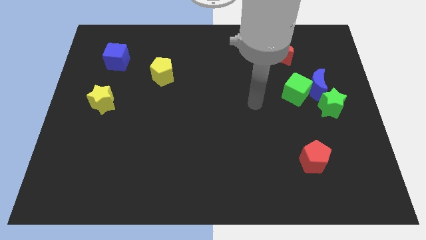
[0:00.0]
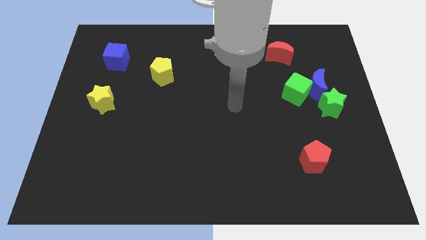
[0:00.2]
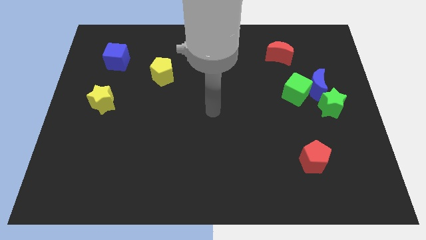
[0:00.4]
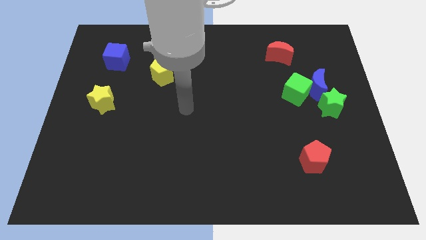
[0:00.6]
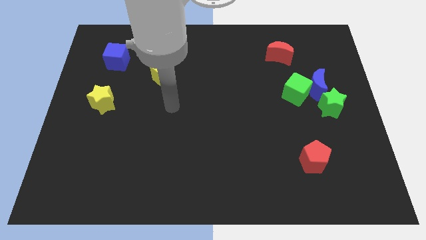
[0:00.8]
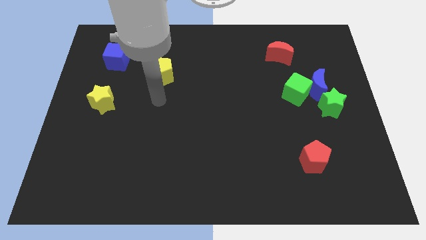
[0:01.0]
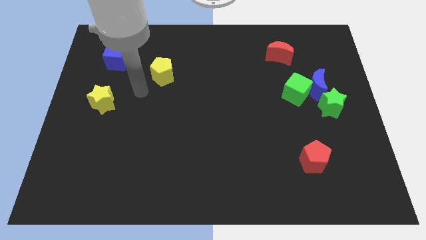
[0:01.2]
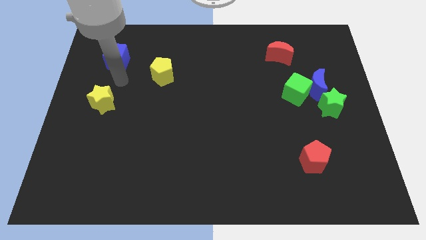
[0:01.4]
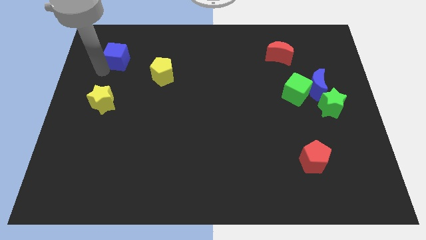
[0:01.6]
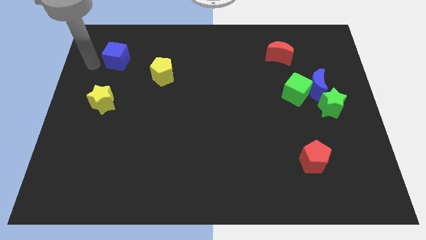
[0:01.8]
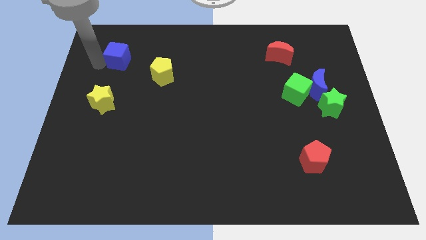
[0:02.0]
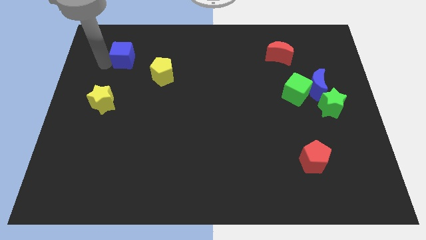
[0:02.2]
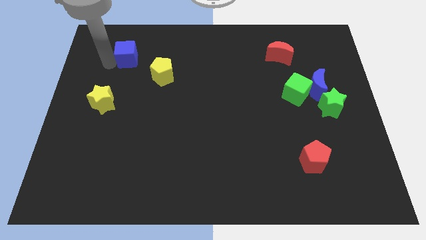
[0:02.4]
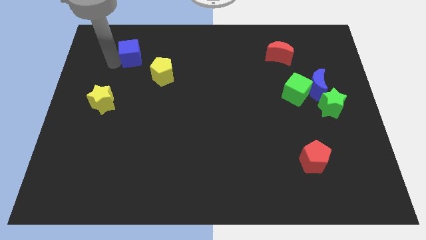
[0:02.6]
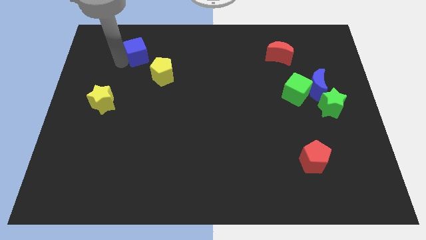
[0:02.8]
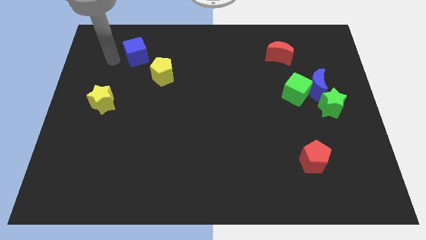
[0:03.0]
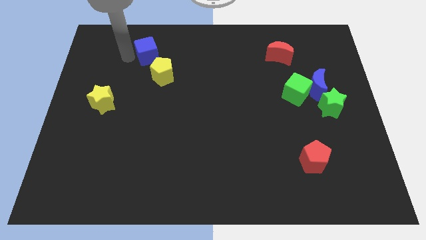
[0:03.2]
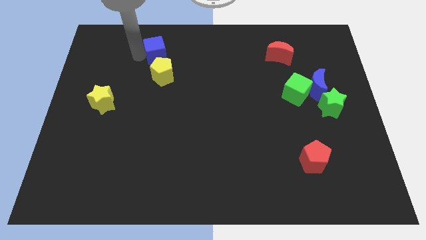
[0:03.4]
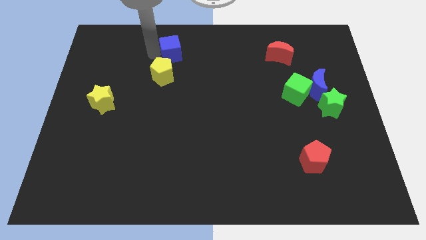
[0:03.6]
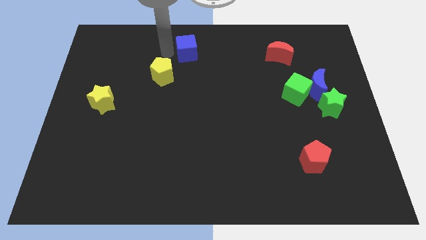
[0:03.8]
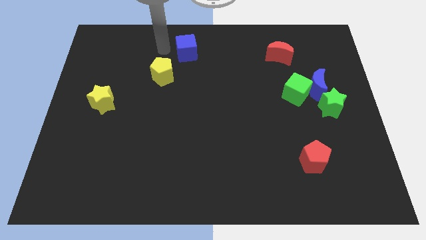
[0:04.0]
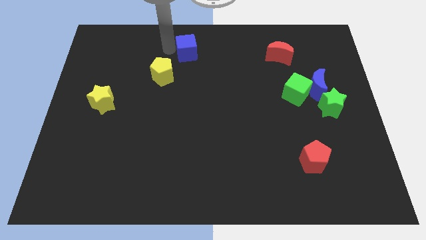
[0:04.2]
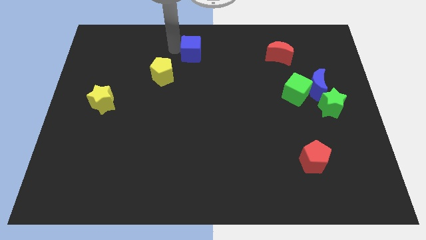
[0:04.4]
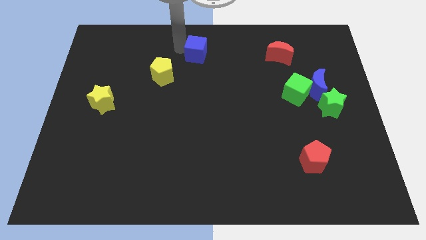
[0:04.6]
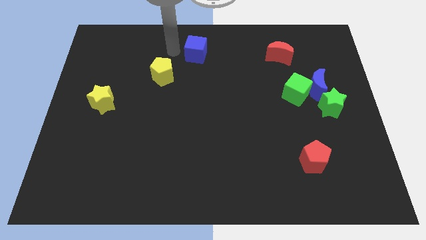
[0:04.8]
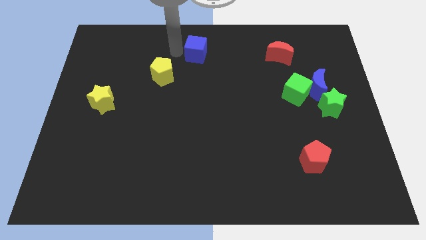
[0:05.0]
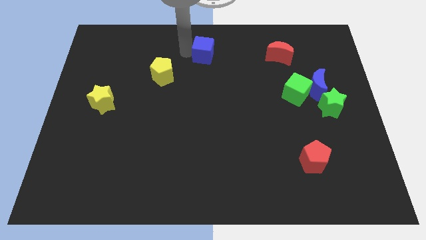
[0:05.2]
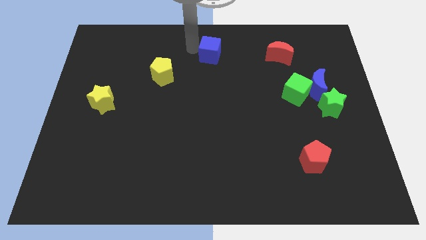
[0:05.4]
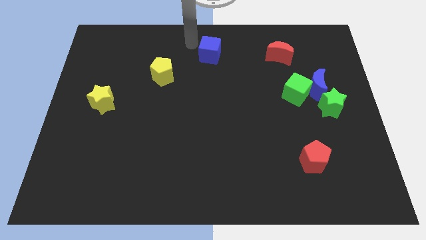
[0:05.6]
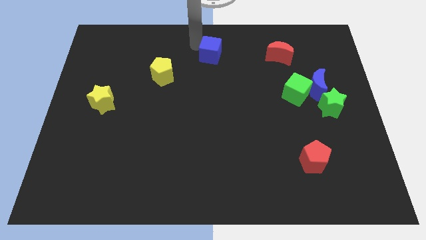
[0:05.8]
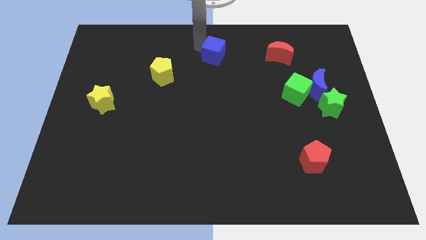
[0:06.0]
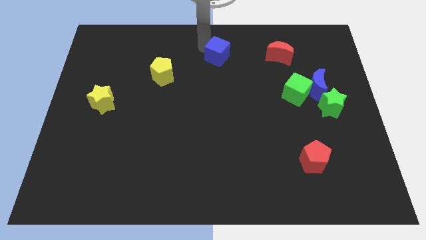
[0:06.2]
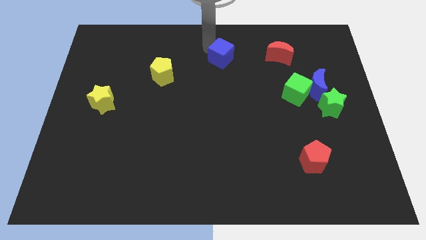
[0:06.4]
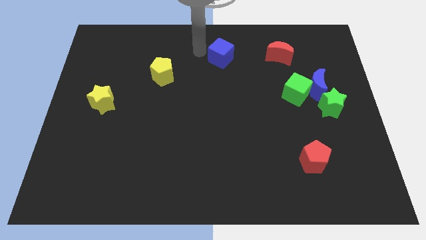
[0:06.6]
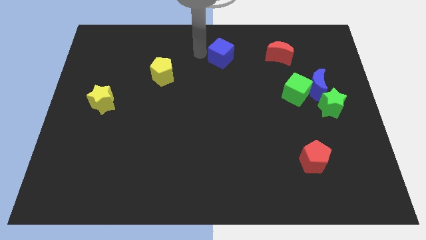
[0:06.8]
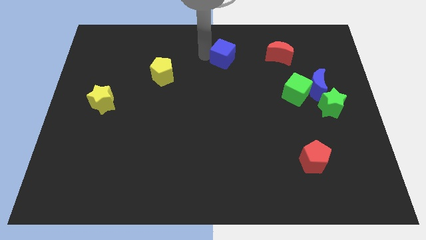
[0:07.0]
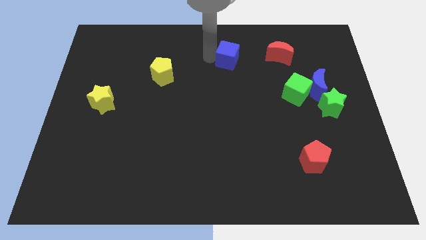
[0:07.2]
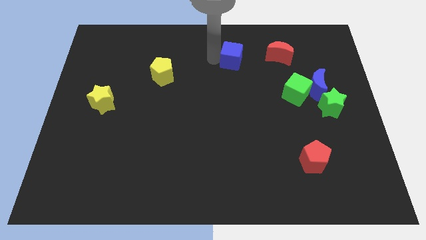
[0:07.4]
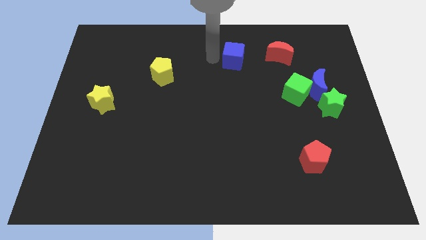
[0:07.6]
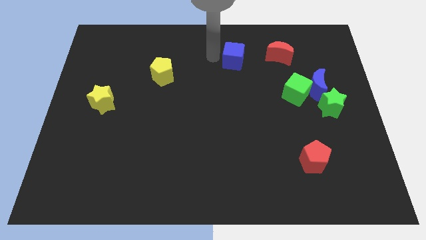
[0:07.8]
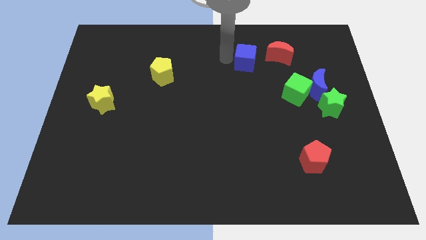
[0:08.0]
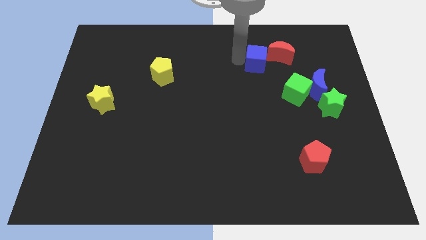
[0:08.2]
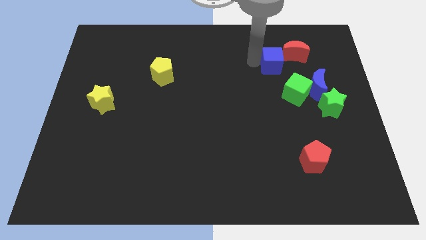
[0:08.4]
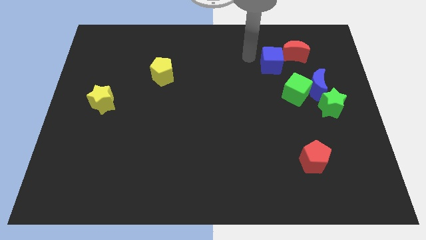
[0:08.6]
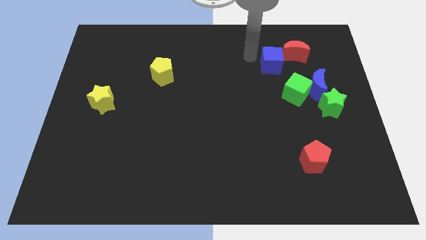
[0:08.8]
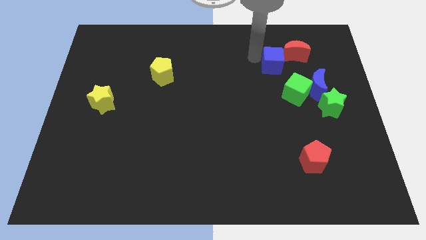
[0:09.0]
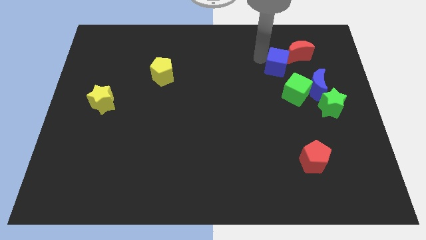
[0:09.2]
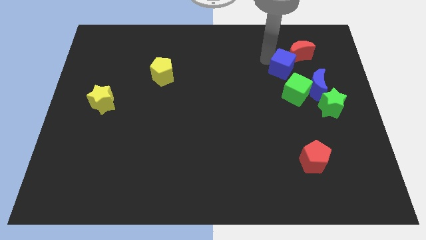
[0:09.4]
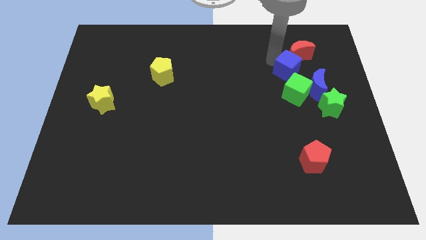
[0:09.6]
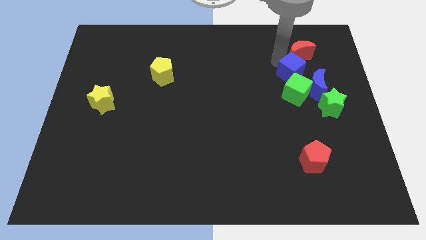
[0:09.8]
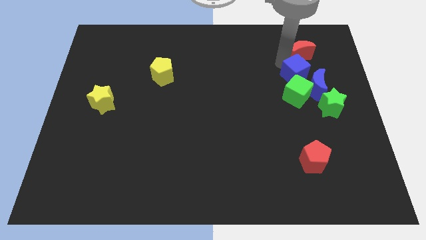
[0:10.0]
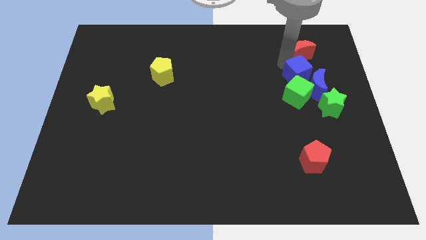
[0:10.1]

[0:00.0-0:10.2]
push the blue cube to the blue moon

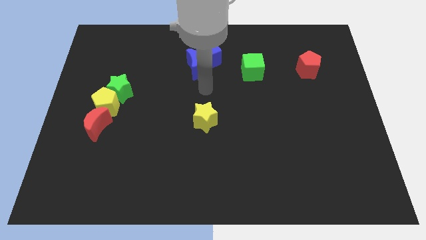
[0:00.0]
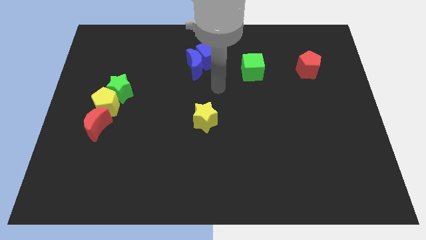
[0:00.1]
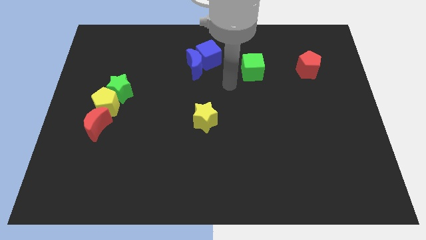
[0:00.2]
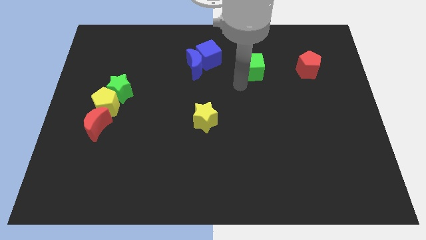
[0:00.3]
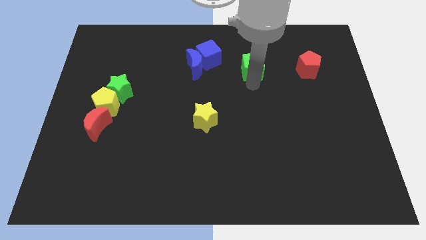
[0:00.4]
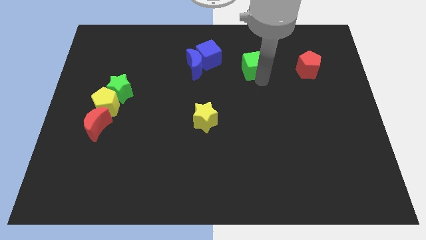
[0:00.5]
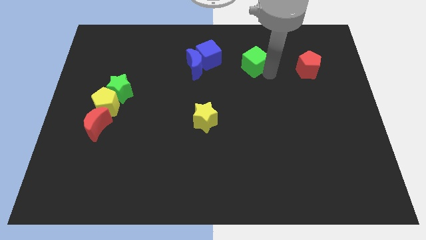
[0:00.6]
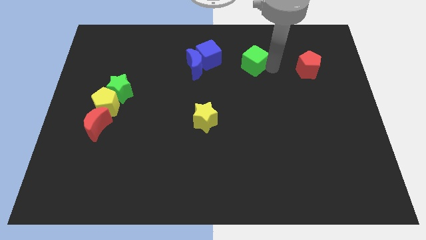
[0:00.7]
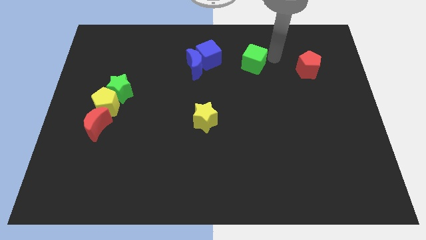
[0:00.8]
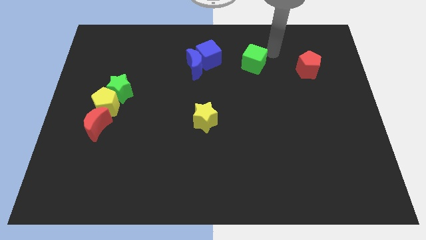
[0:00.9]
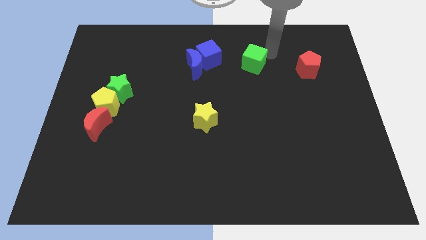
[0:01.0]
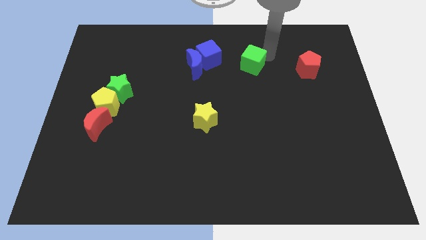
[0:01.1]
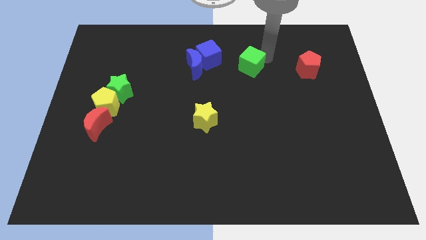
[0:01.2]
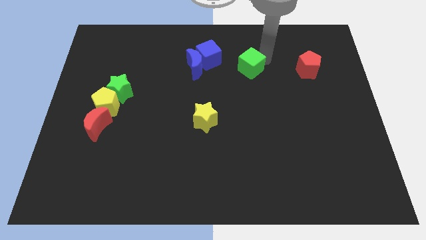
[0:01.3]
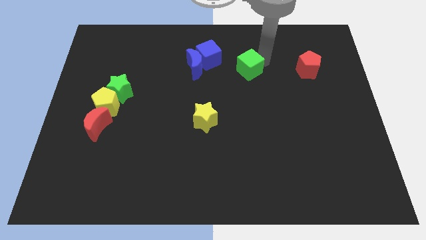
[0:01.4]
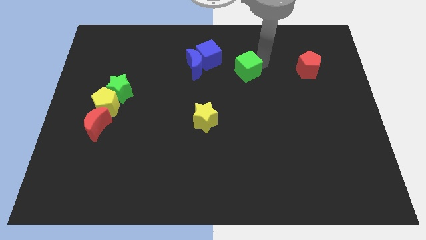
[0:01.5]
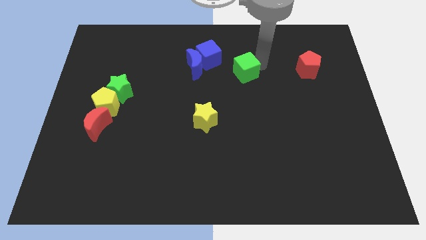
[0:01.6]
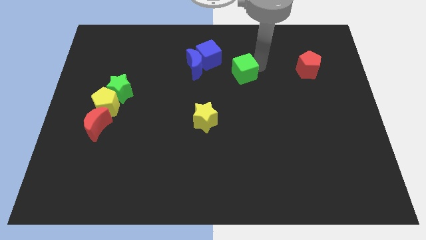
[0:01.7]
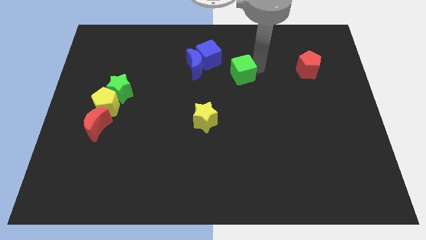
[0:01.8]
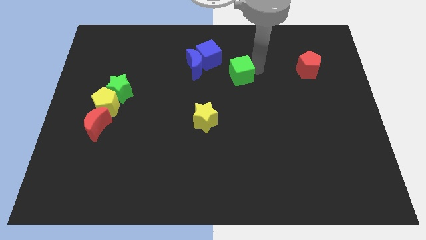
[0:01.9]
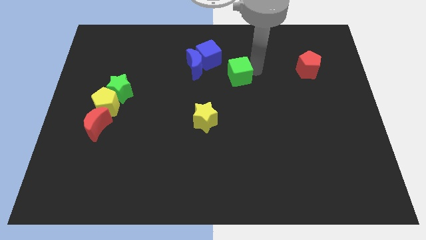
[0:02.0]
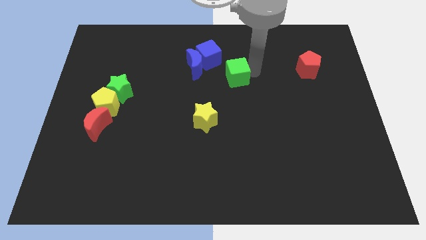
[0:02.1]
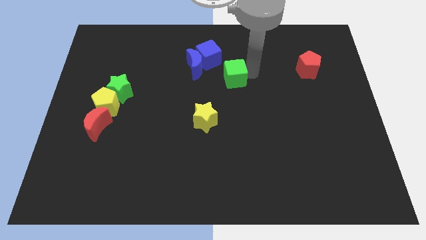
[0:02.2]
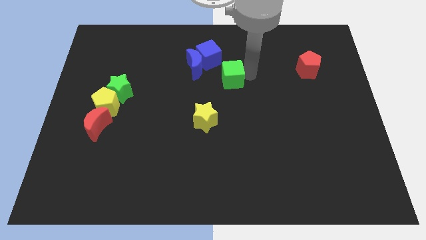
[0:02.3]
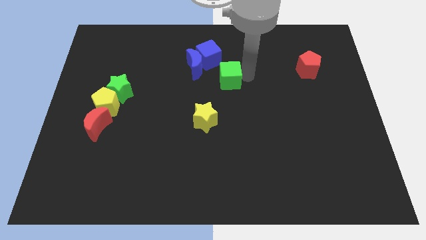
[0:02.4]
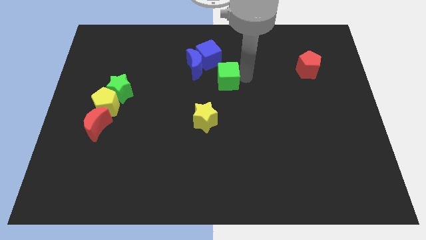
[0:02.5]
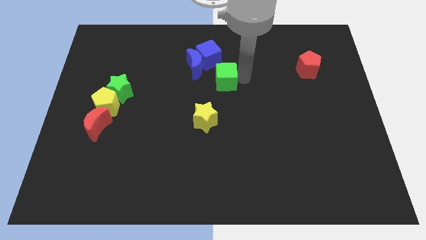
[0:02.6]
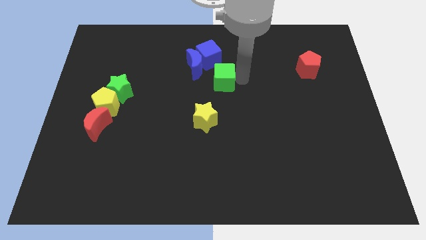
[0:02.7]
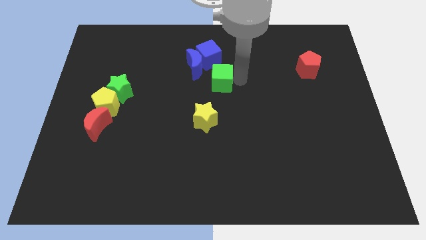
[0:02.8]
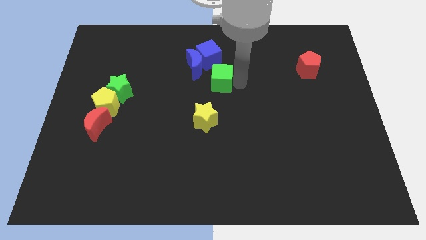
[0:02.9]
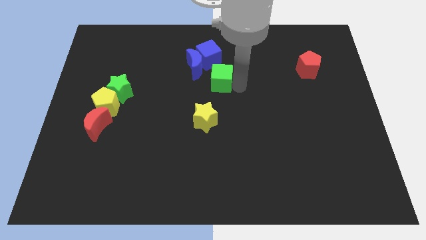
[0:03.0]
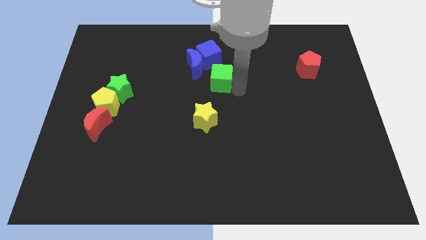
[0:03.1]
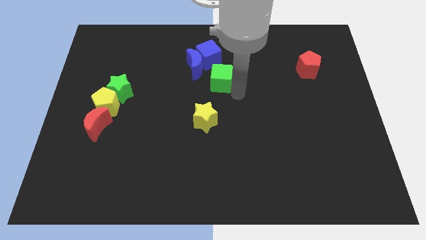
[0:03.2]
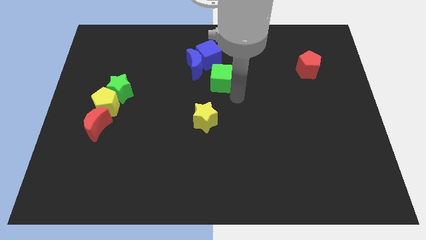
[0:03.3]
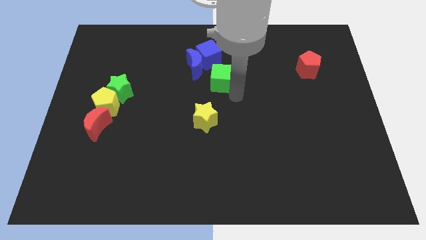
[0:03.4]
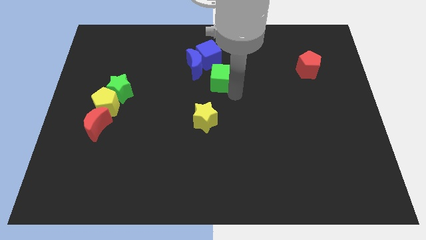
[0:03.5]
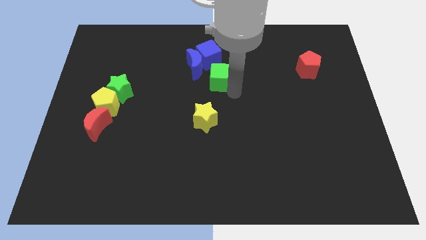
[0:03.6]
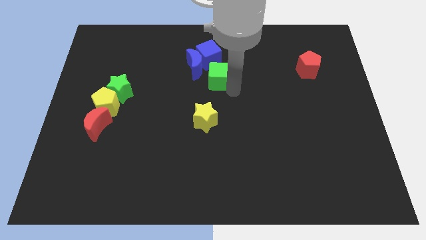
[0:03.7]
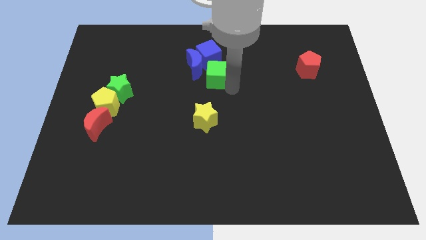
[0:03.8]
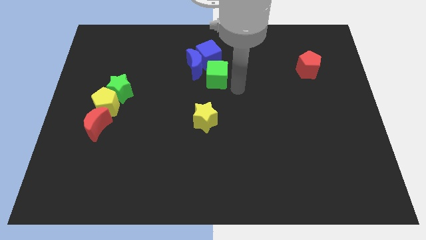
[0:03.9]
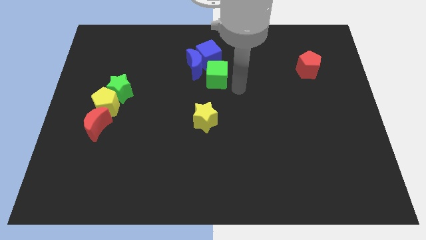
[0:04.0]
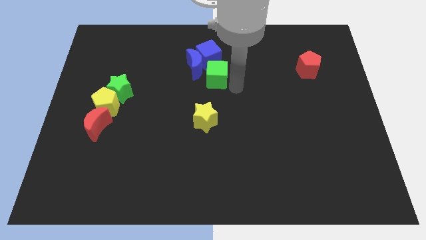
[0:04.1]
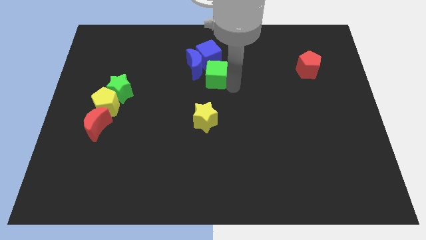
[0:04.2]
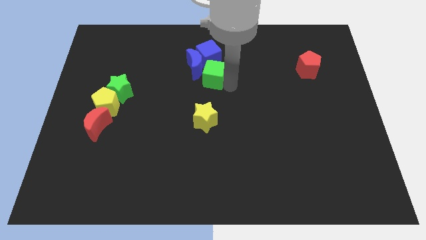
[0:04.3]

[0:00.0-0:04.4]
move the green cube next to the blue moon
